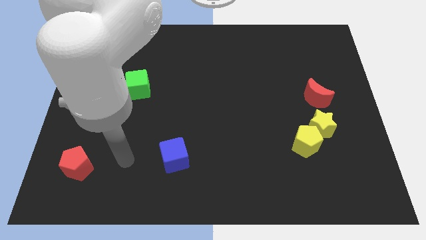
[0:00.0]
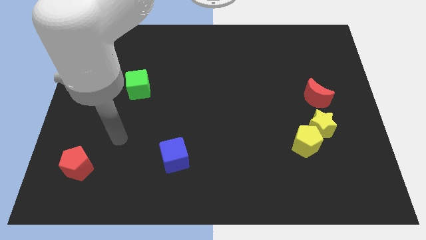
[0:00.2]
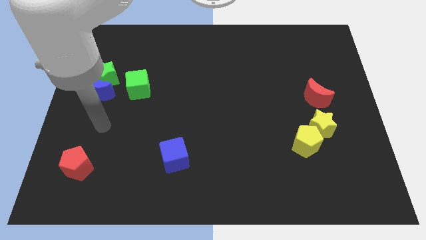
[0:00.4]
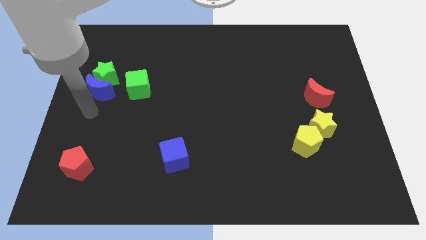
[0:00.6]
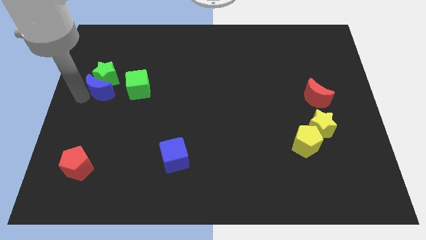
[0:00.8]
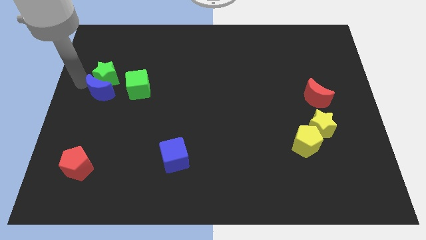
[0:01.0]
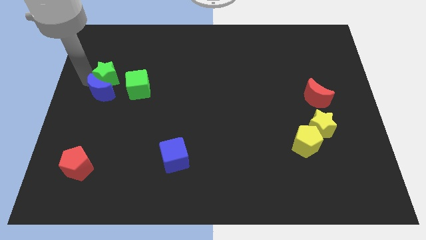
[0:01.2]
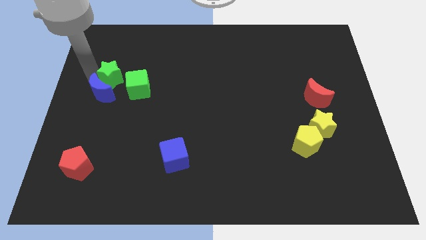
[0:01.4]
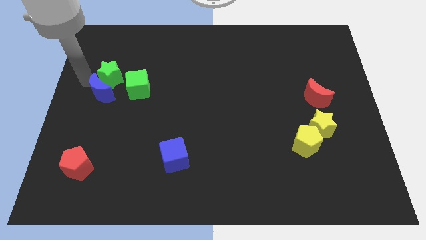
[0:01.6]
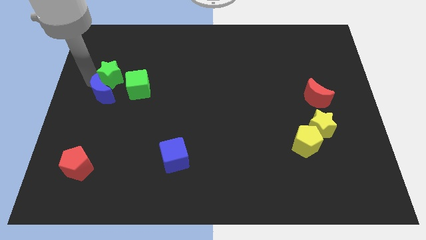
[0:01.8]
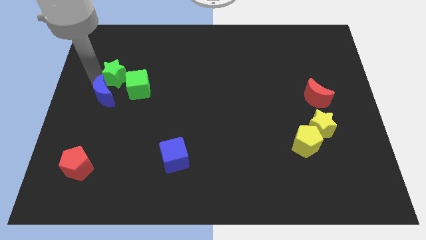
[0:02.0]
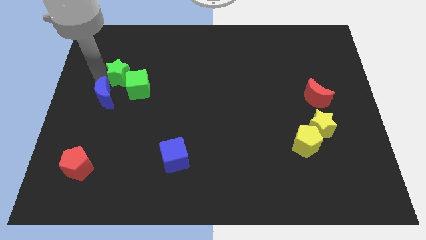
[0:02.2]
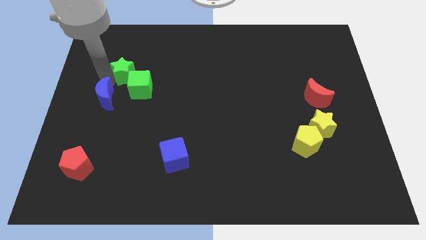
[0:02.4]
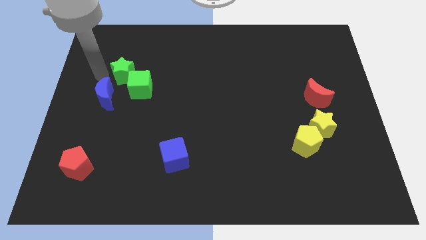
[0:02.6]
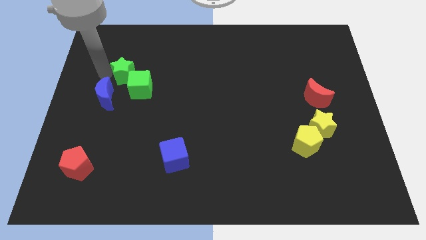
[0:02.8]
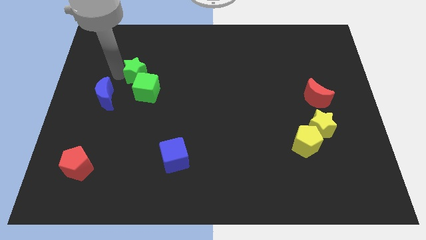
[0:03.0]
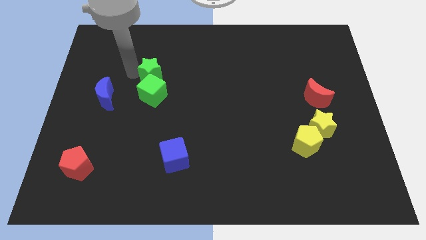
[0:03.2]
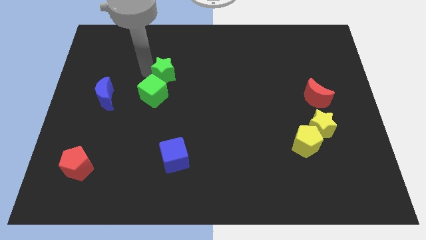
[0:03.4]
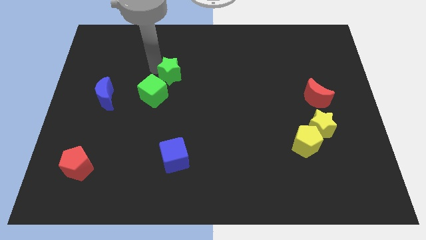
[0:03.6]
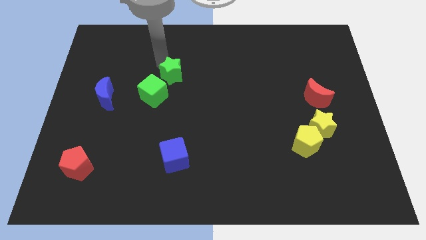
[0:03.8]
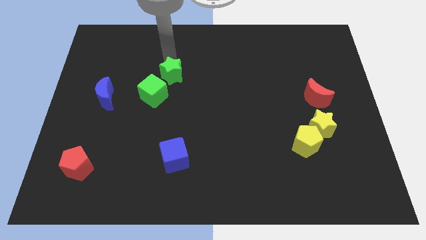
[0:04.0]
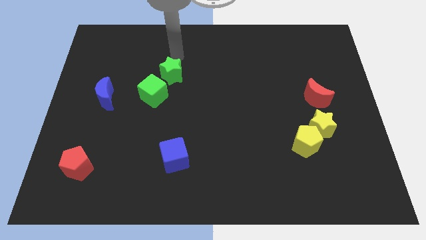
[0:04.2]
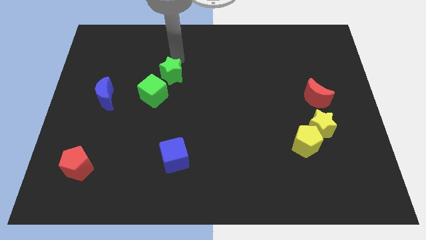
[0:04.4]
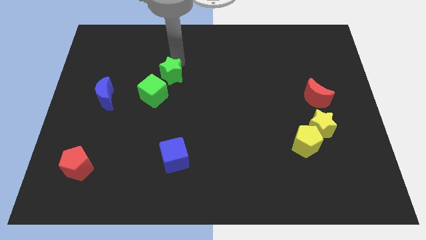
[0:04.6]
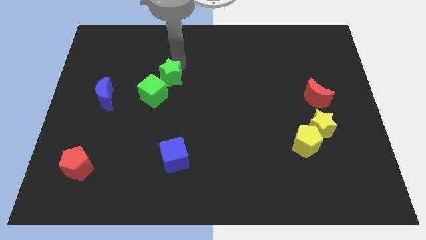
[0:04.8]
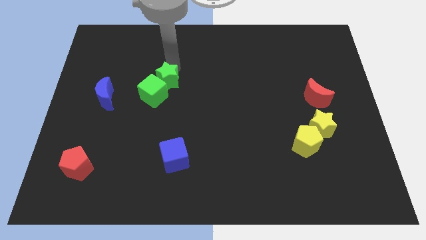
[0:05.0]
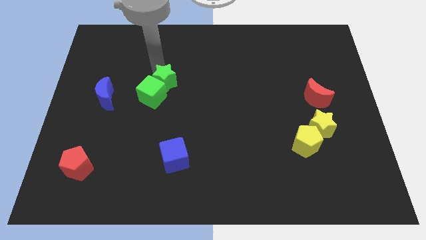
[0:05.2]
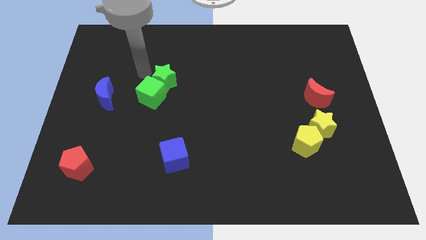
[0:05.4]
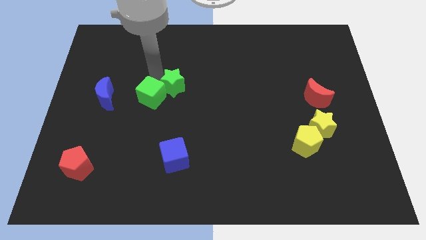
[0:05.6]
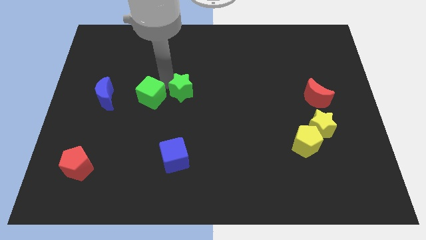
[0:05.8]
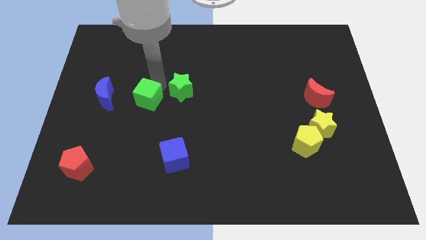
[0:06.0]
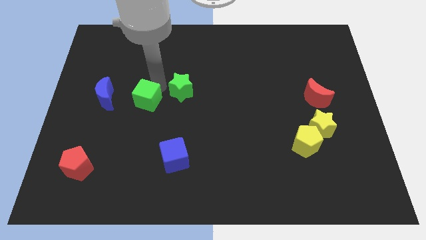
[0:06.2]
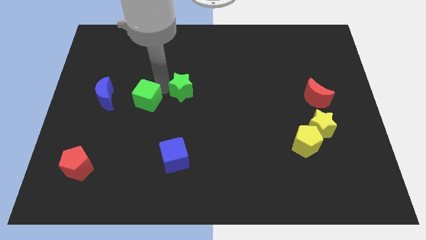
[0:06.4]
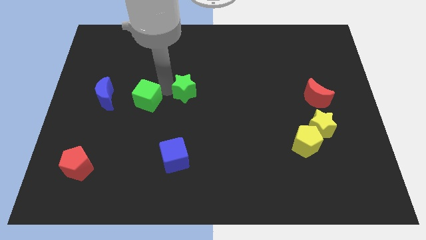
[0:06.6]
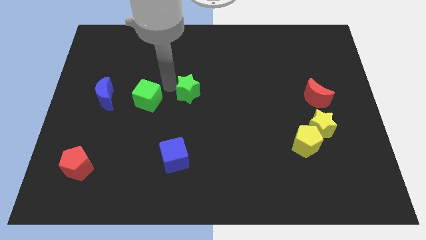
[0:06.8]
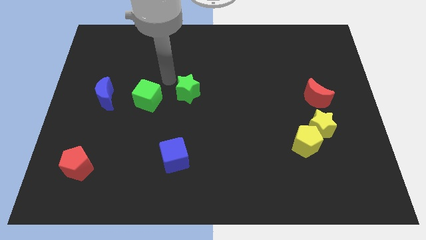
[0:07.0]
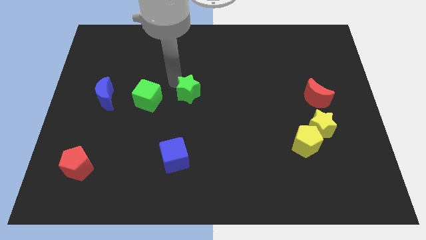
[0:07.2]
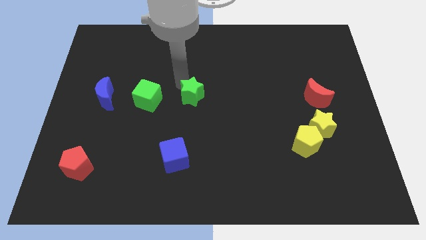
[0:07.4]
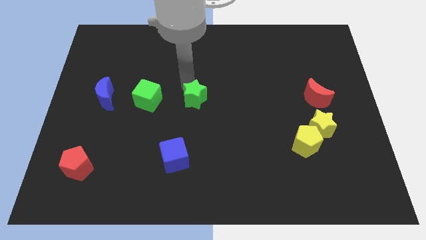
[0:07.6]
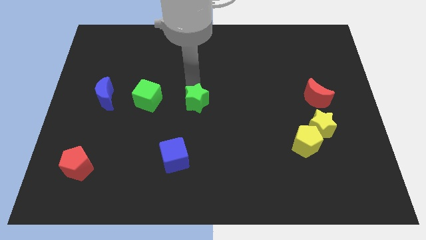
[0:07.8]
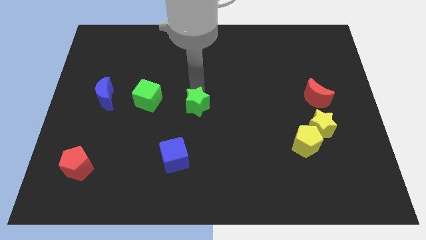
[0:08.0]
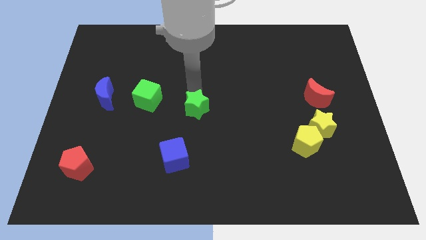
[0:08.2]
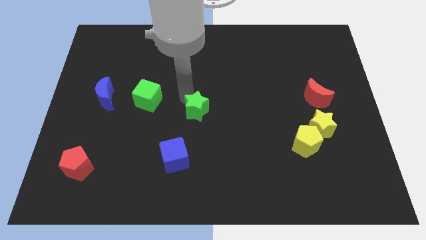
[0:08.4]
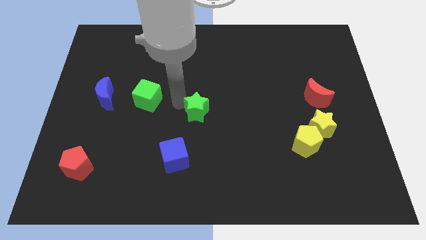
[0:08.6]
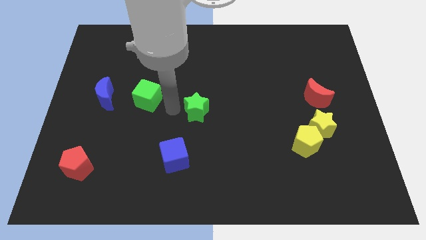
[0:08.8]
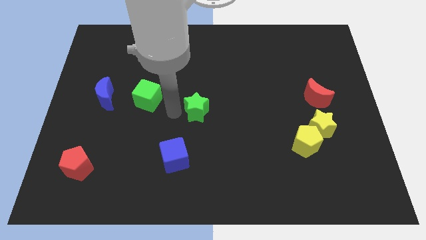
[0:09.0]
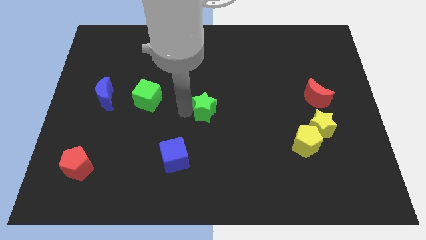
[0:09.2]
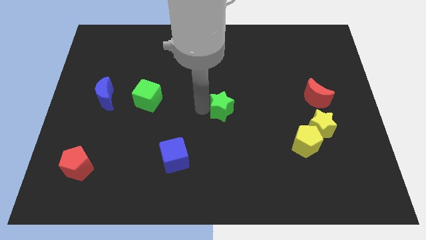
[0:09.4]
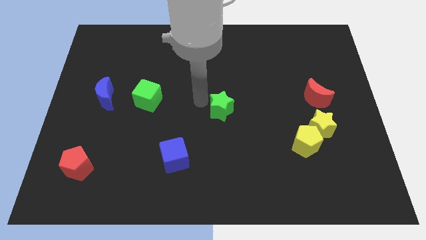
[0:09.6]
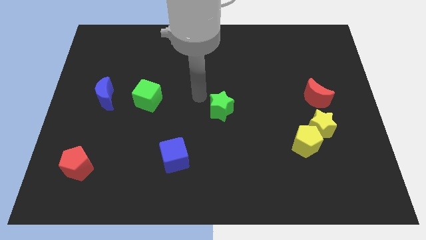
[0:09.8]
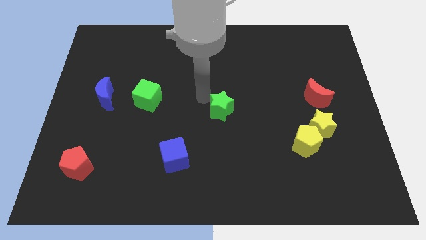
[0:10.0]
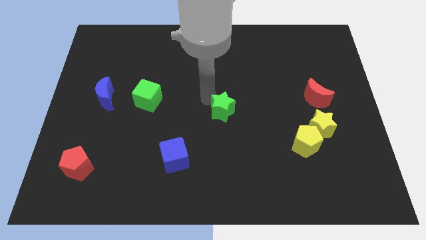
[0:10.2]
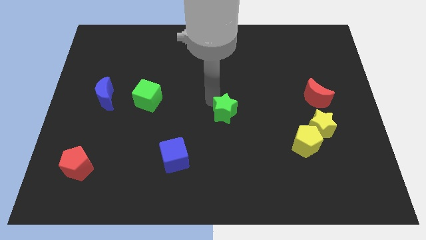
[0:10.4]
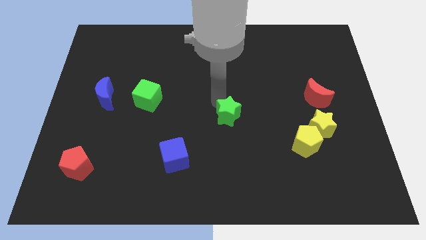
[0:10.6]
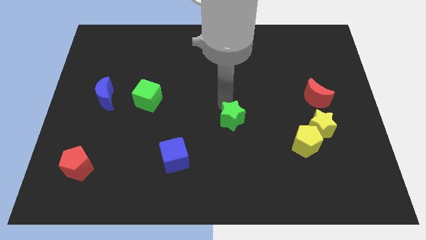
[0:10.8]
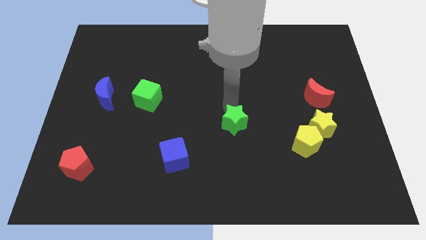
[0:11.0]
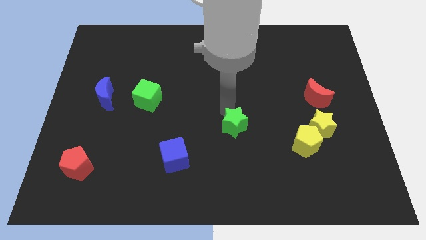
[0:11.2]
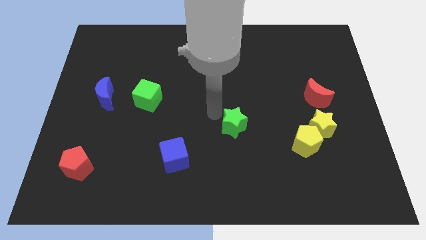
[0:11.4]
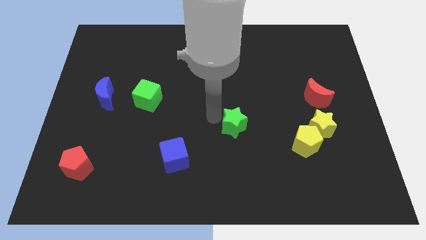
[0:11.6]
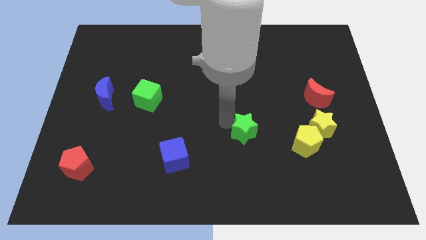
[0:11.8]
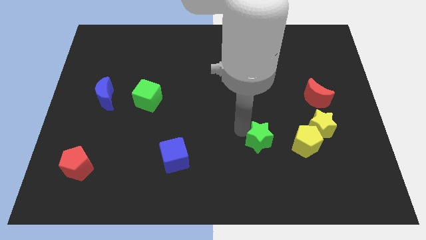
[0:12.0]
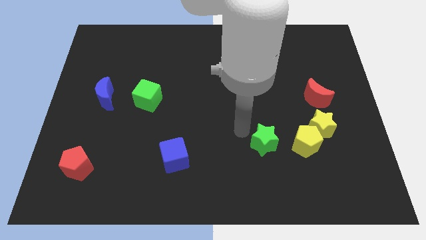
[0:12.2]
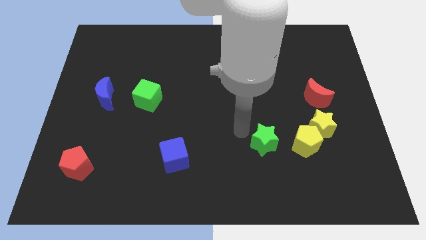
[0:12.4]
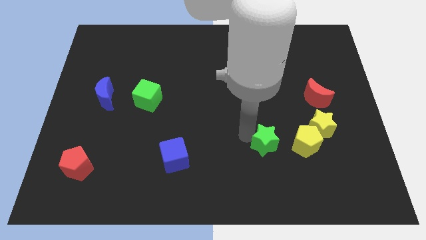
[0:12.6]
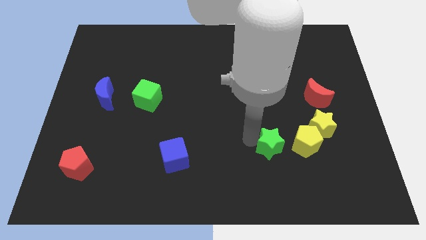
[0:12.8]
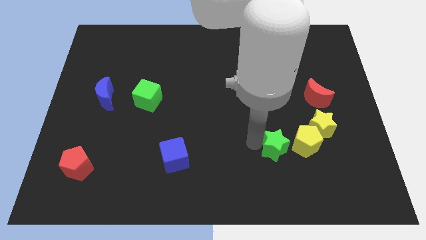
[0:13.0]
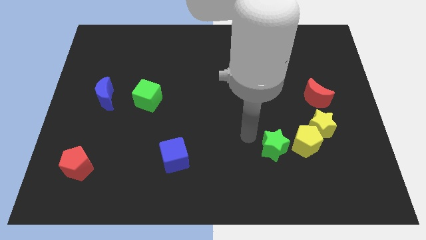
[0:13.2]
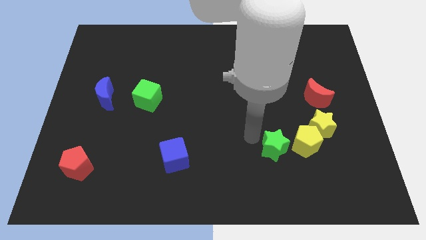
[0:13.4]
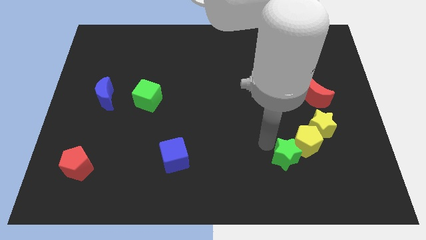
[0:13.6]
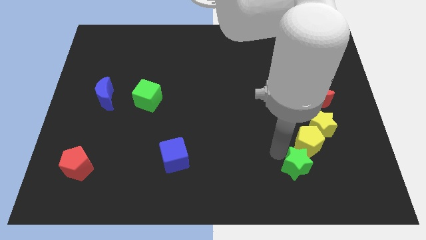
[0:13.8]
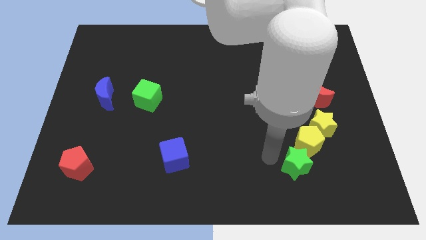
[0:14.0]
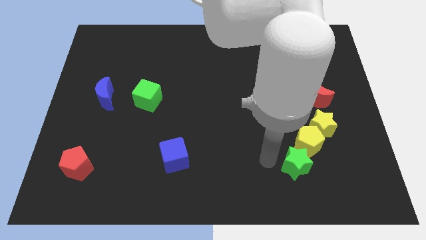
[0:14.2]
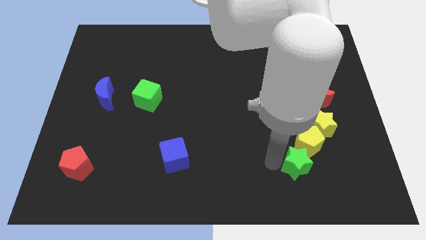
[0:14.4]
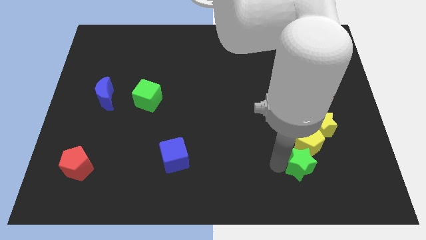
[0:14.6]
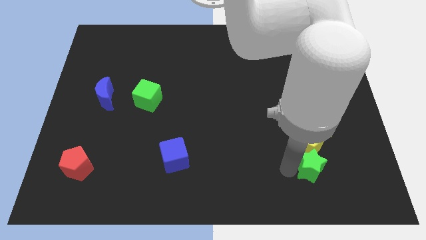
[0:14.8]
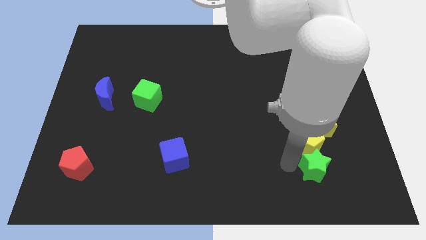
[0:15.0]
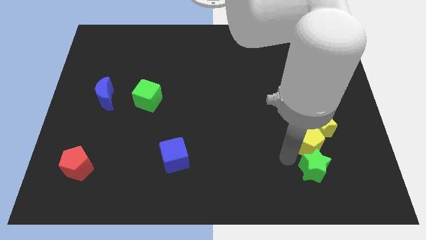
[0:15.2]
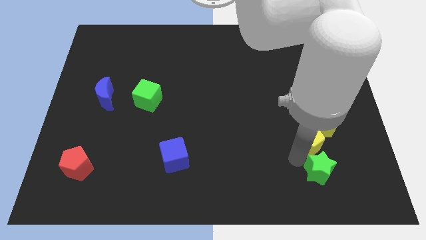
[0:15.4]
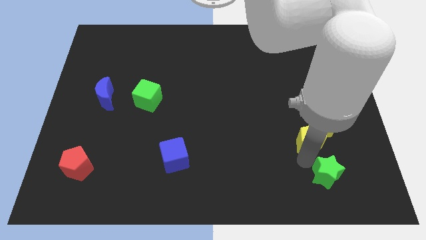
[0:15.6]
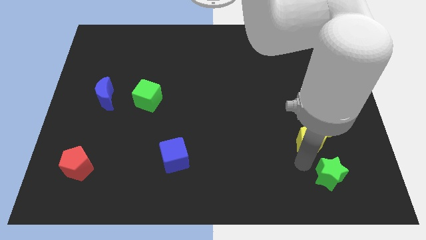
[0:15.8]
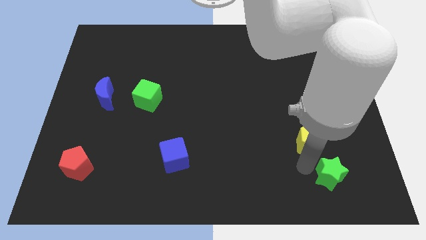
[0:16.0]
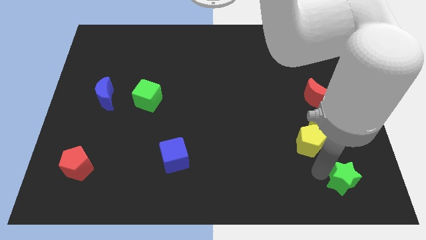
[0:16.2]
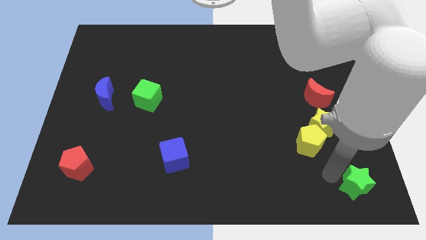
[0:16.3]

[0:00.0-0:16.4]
put the green star to the lower right corner
